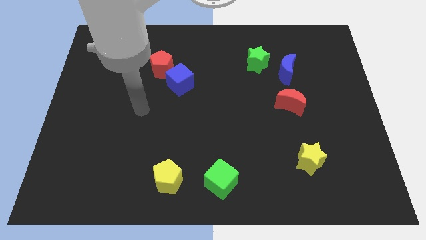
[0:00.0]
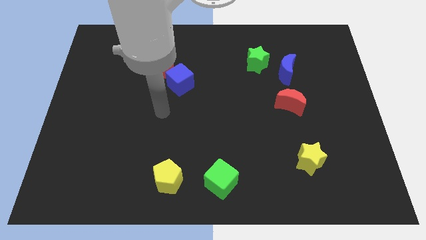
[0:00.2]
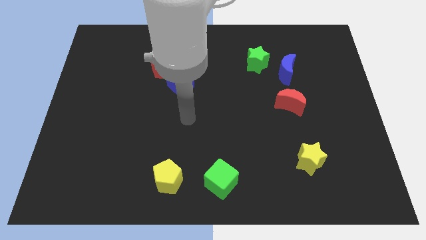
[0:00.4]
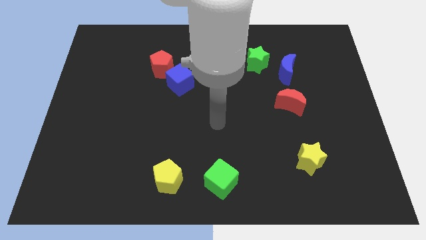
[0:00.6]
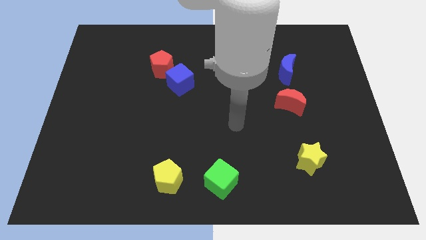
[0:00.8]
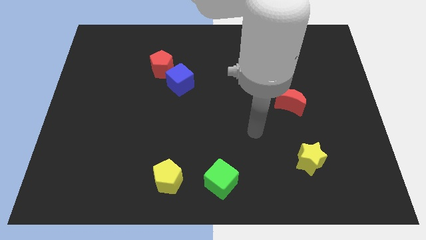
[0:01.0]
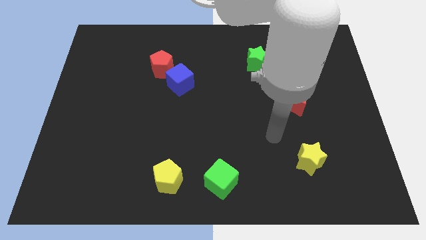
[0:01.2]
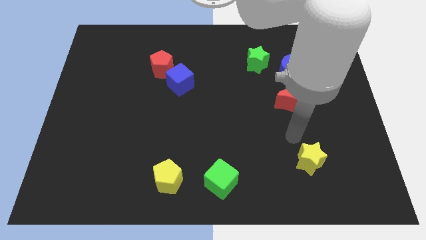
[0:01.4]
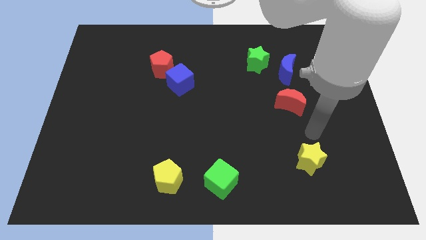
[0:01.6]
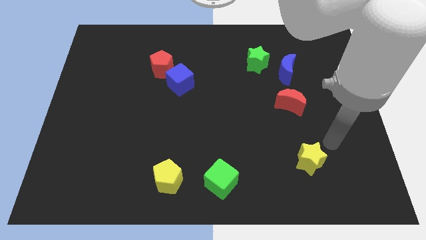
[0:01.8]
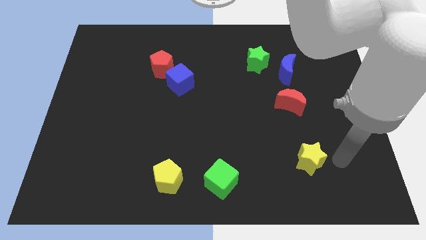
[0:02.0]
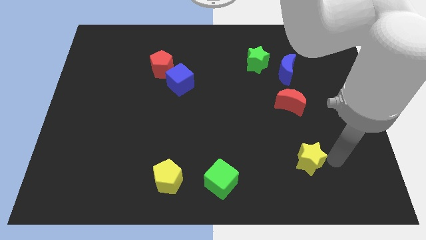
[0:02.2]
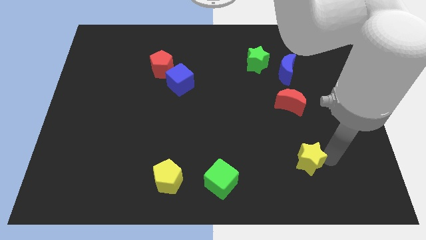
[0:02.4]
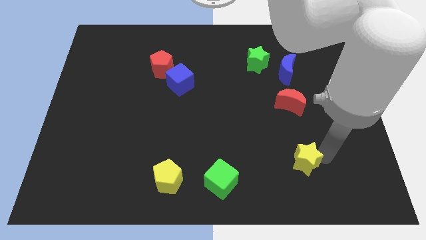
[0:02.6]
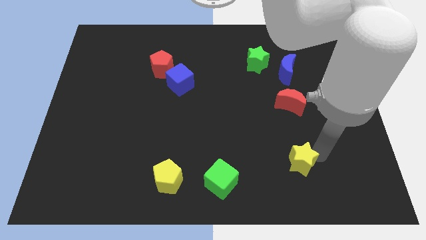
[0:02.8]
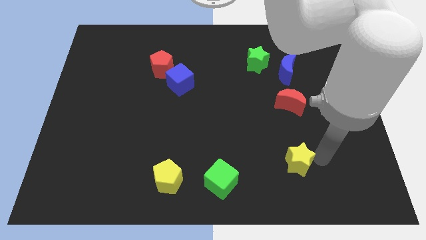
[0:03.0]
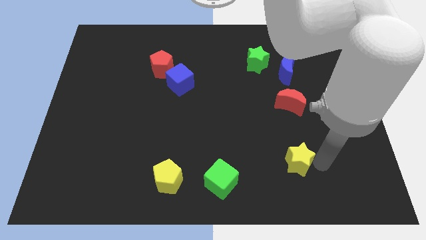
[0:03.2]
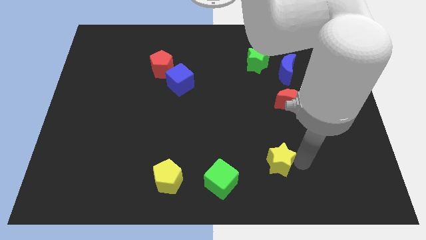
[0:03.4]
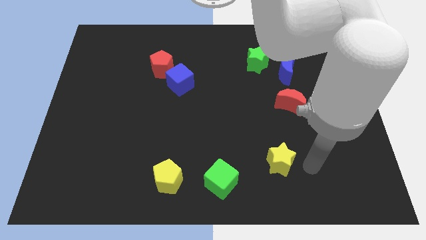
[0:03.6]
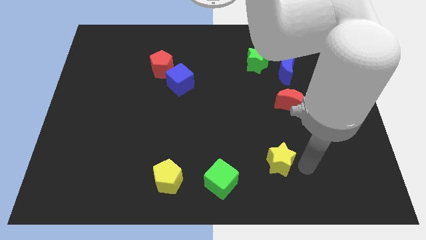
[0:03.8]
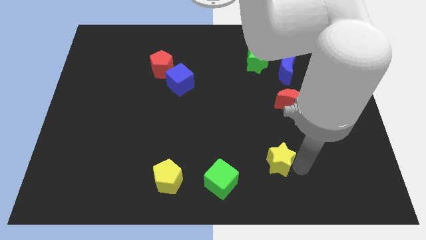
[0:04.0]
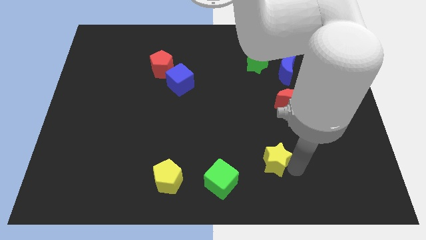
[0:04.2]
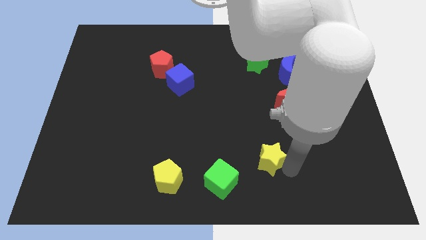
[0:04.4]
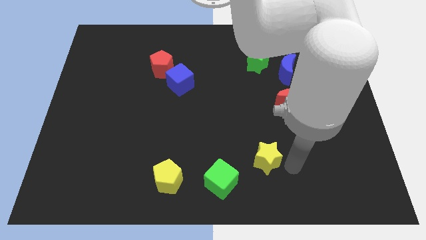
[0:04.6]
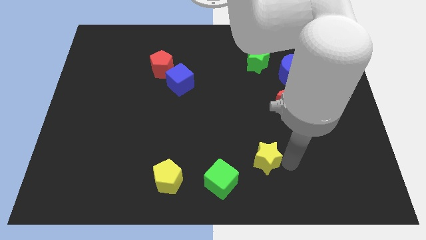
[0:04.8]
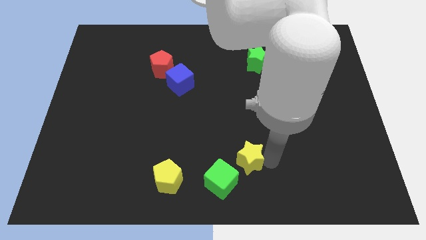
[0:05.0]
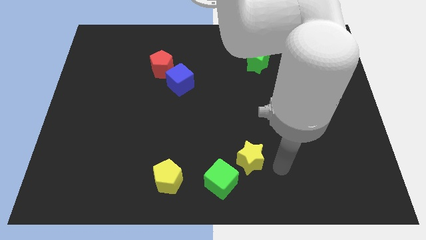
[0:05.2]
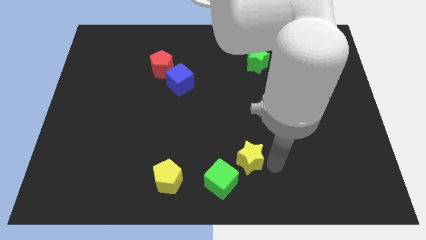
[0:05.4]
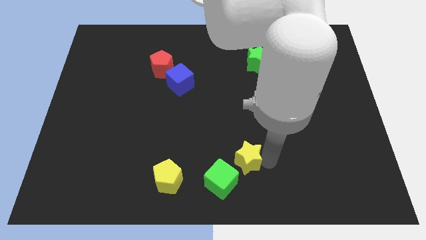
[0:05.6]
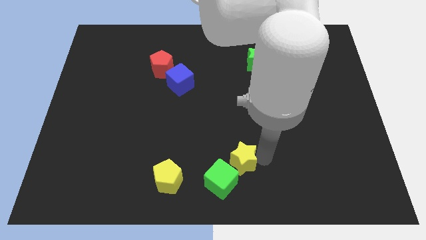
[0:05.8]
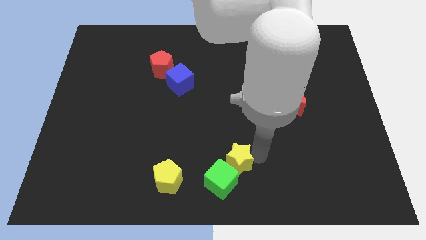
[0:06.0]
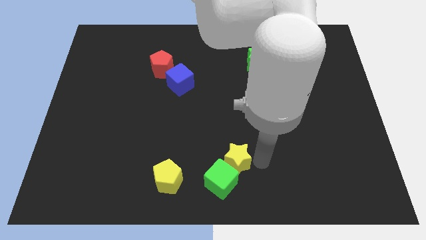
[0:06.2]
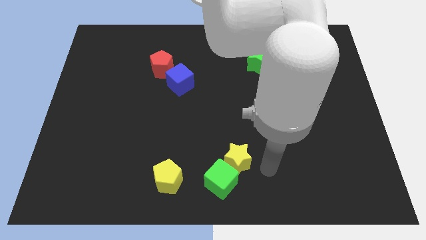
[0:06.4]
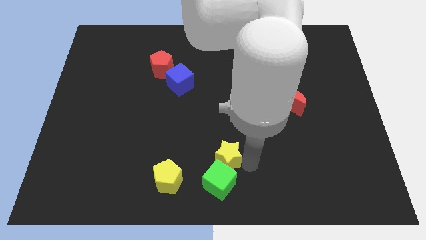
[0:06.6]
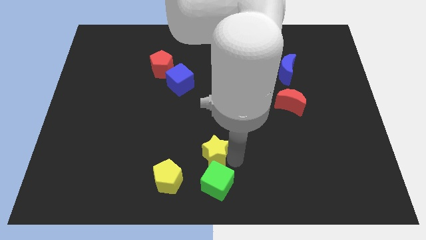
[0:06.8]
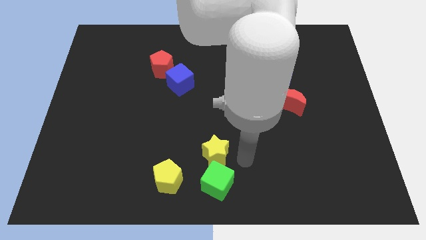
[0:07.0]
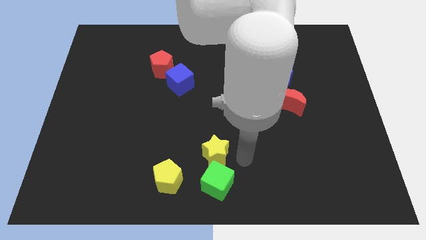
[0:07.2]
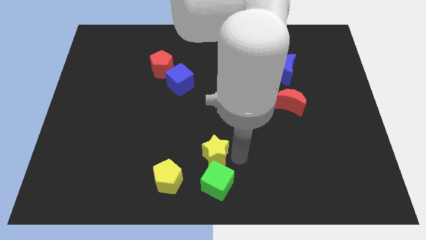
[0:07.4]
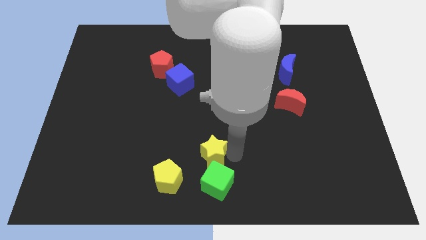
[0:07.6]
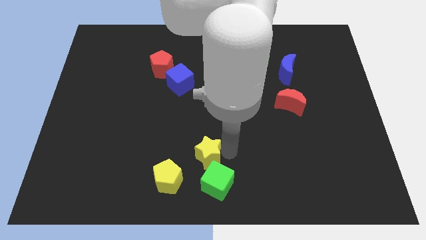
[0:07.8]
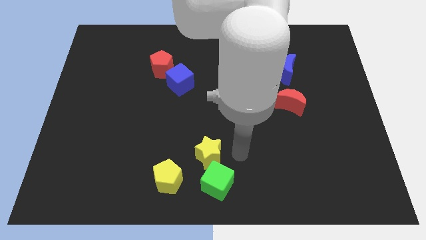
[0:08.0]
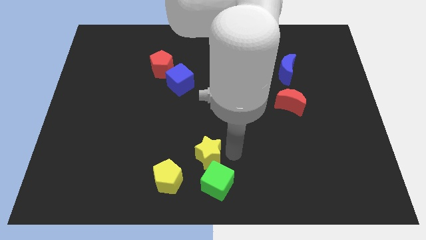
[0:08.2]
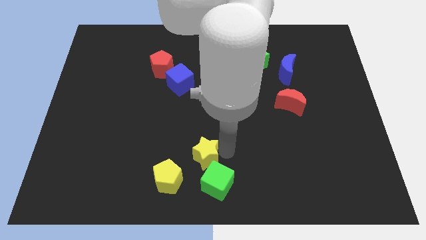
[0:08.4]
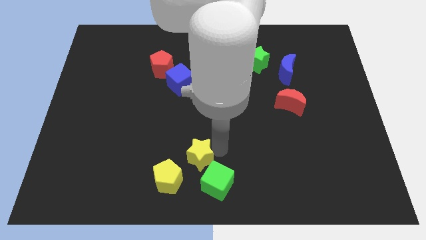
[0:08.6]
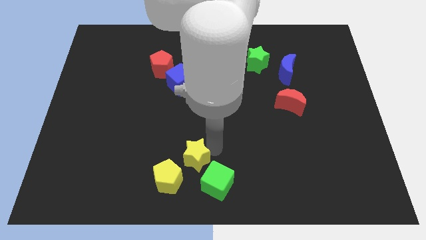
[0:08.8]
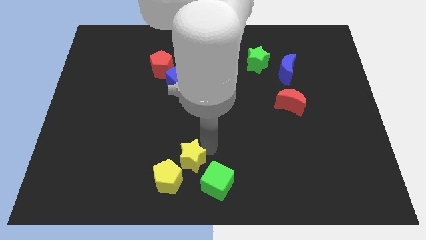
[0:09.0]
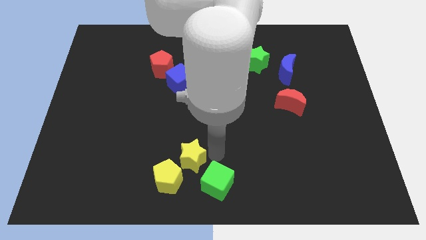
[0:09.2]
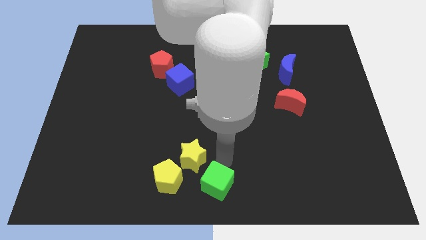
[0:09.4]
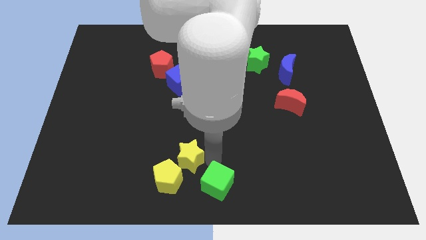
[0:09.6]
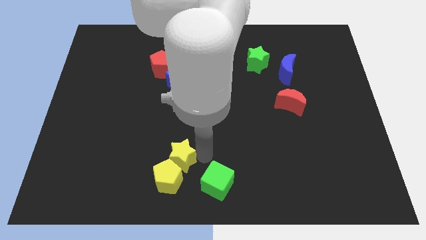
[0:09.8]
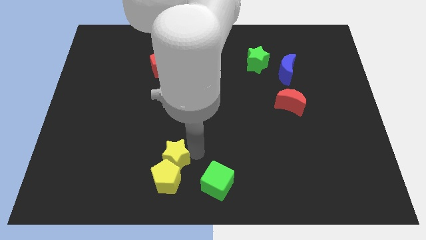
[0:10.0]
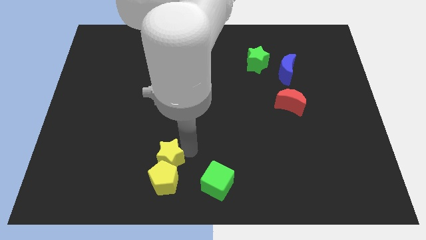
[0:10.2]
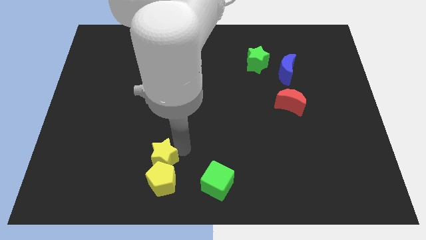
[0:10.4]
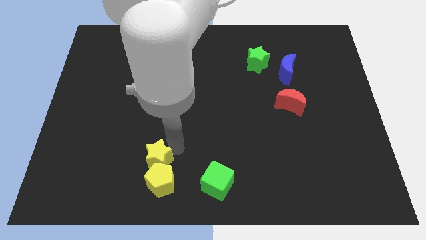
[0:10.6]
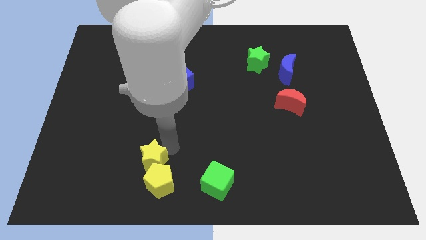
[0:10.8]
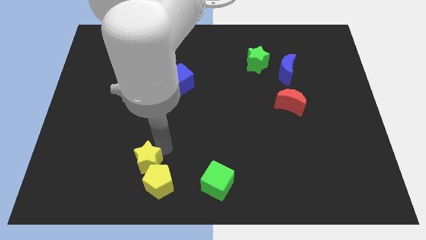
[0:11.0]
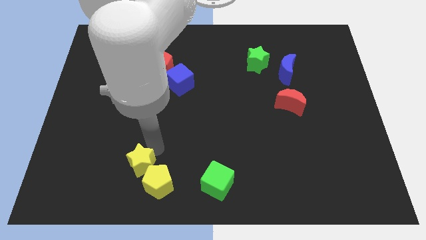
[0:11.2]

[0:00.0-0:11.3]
push the yellow star to the left of the yellow pentagon
